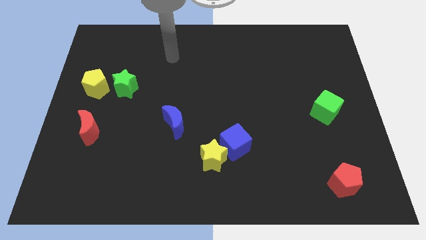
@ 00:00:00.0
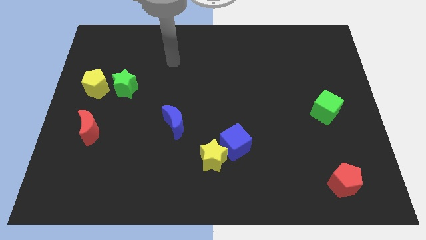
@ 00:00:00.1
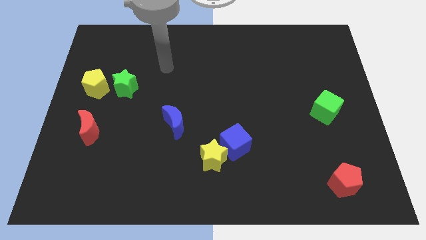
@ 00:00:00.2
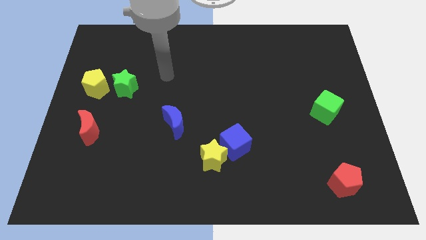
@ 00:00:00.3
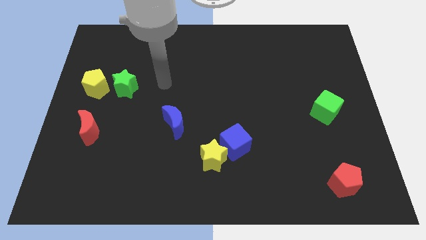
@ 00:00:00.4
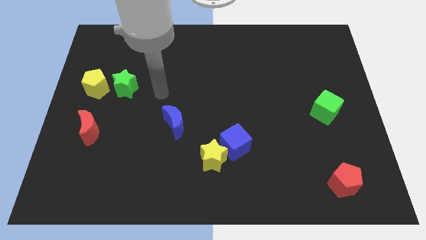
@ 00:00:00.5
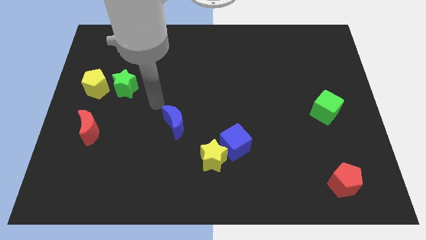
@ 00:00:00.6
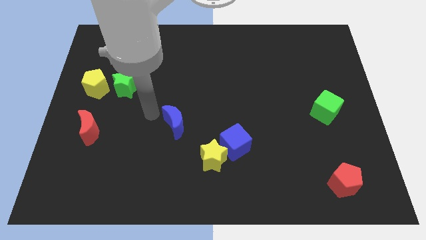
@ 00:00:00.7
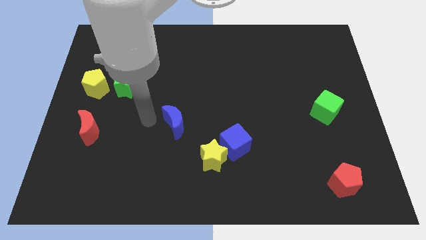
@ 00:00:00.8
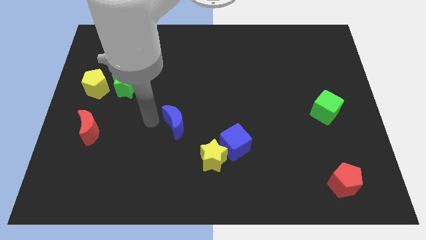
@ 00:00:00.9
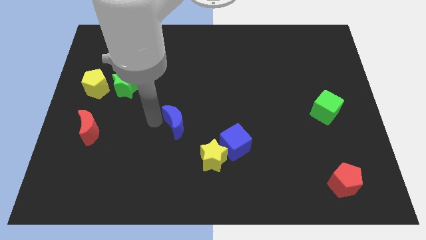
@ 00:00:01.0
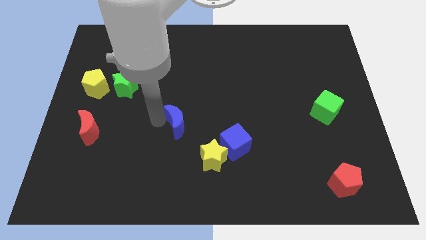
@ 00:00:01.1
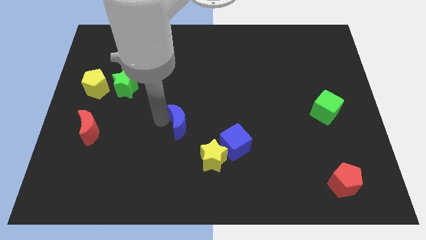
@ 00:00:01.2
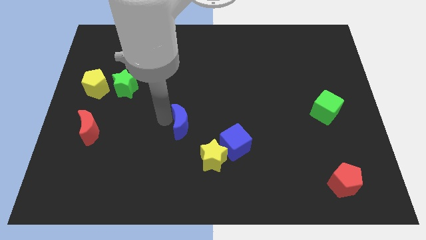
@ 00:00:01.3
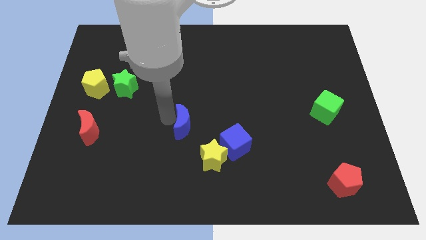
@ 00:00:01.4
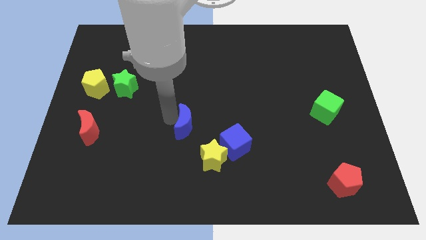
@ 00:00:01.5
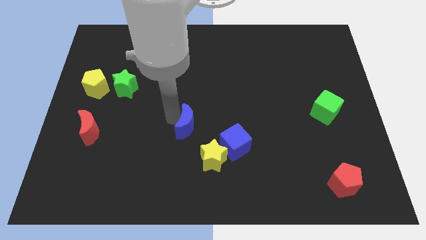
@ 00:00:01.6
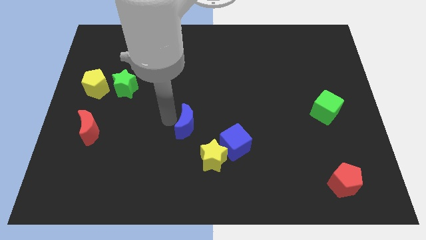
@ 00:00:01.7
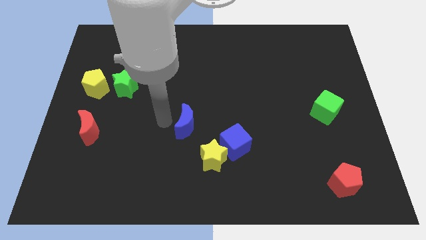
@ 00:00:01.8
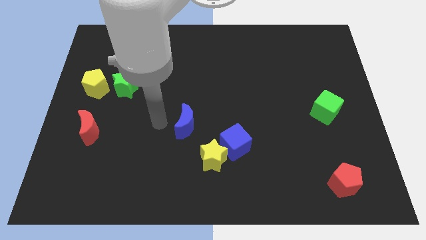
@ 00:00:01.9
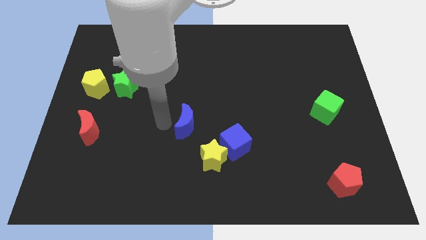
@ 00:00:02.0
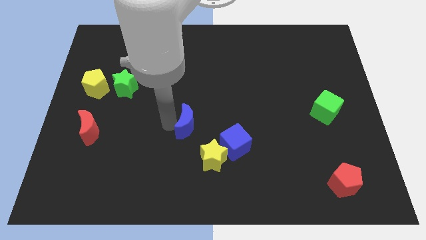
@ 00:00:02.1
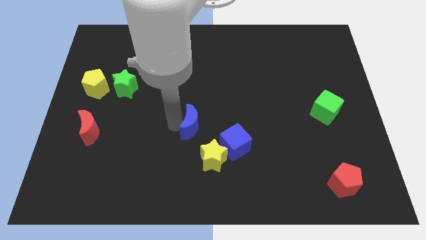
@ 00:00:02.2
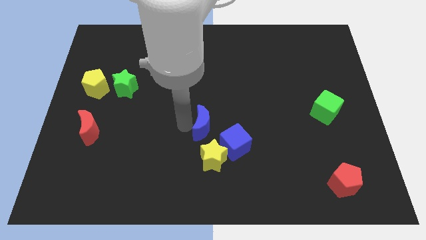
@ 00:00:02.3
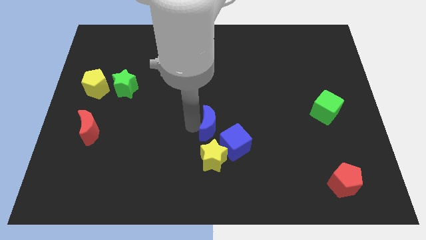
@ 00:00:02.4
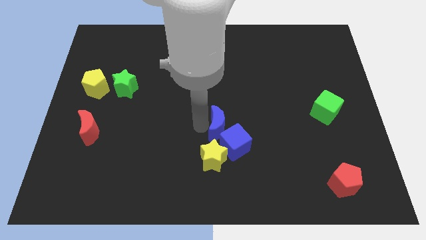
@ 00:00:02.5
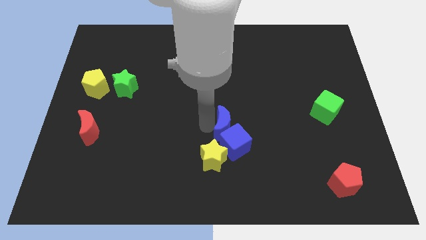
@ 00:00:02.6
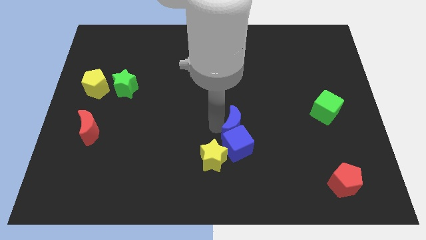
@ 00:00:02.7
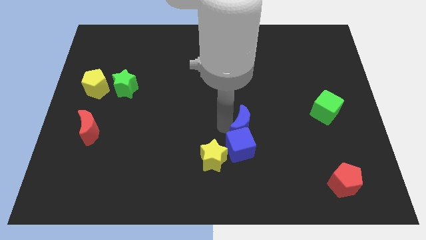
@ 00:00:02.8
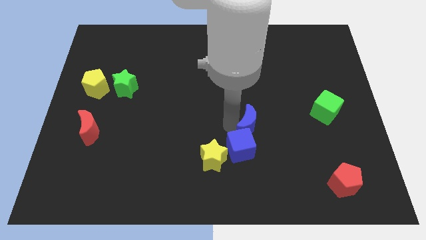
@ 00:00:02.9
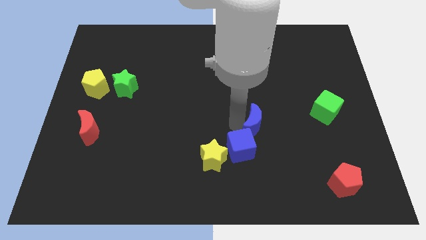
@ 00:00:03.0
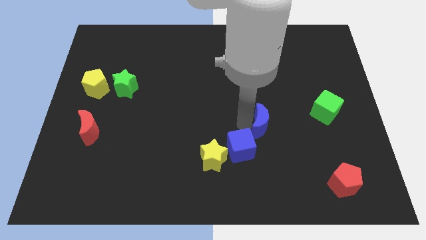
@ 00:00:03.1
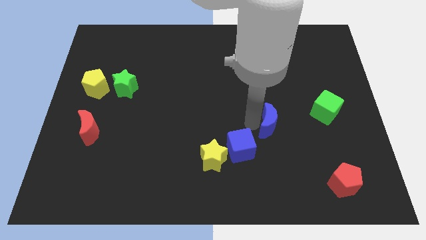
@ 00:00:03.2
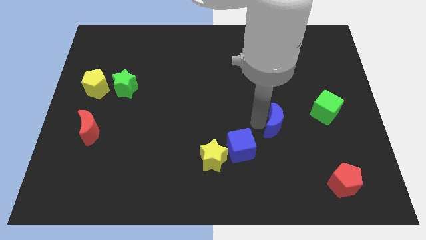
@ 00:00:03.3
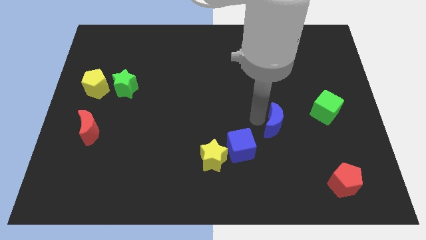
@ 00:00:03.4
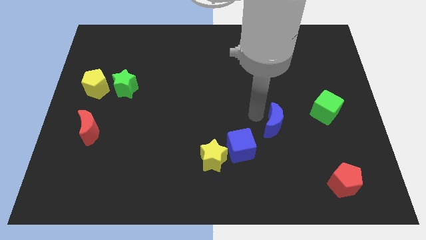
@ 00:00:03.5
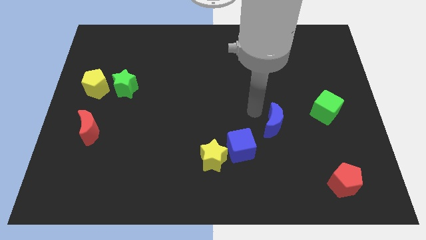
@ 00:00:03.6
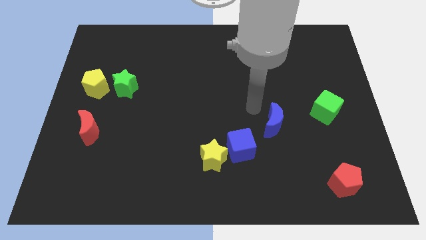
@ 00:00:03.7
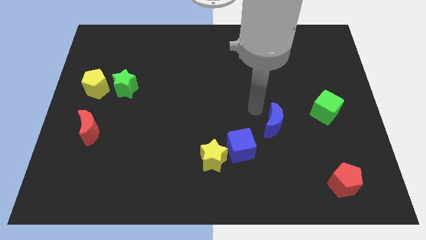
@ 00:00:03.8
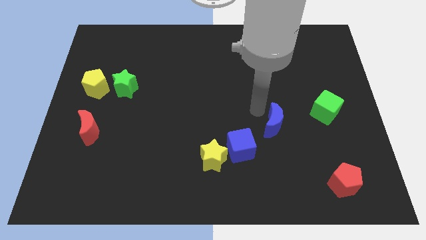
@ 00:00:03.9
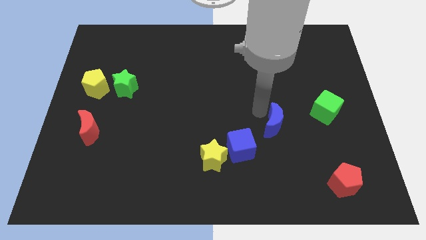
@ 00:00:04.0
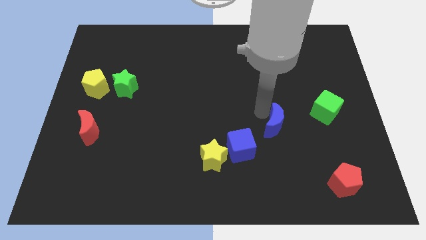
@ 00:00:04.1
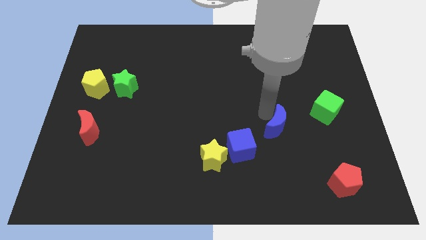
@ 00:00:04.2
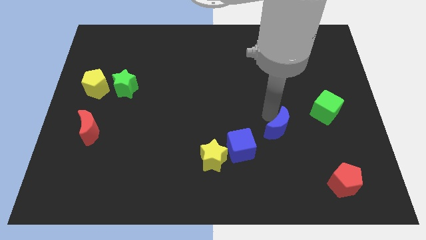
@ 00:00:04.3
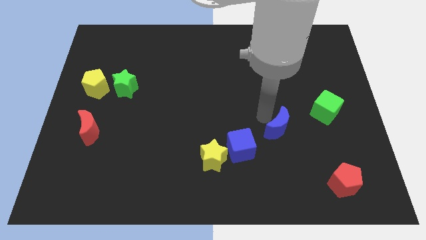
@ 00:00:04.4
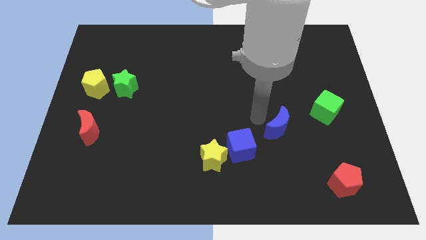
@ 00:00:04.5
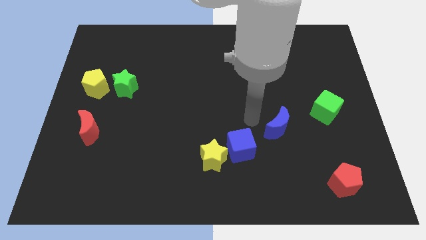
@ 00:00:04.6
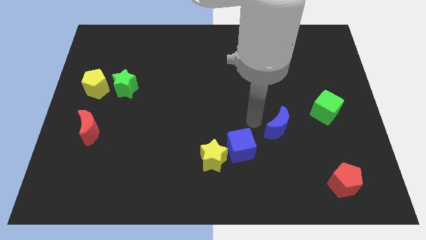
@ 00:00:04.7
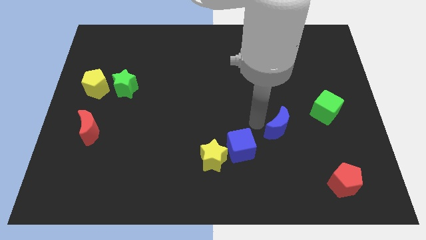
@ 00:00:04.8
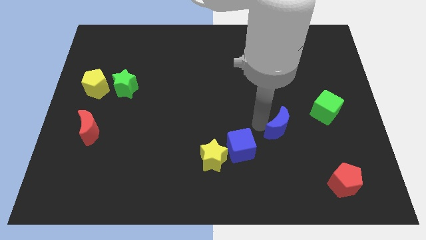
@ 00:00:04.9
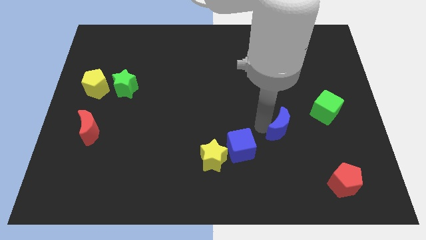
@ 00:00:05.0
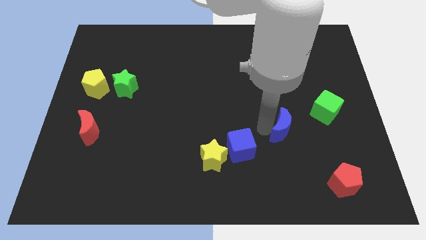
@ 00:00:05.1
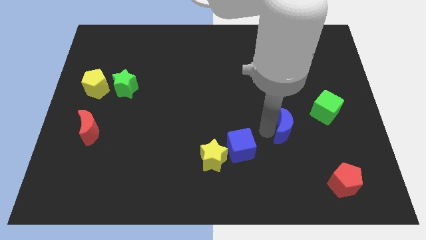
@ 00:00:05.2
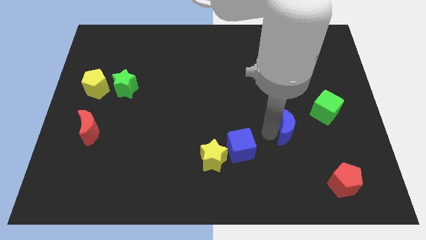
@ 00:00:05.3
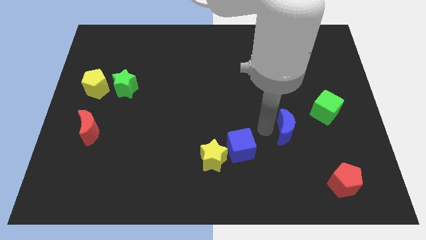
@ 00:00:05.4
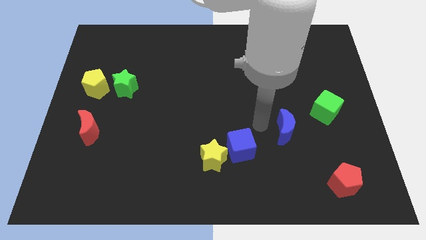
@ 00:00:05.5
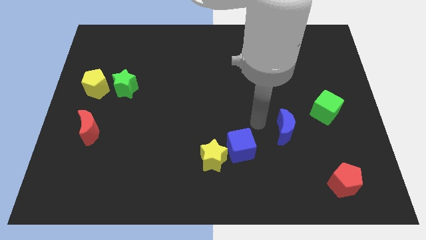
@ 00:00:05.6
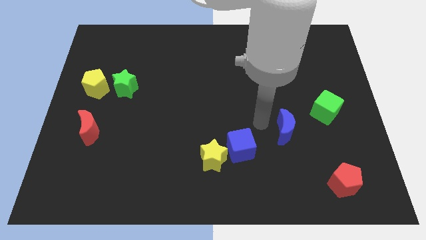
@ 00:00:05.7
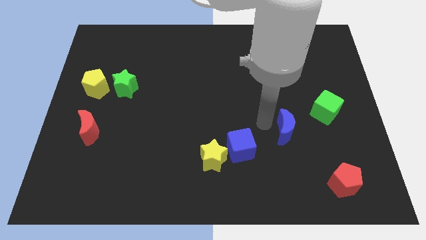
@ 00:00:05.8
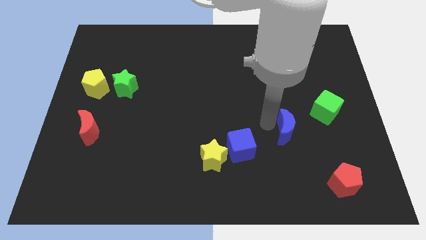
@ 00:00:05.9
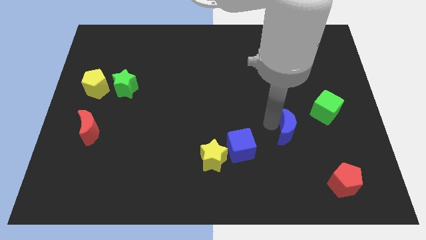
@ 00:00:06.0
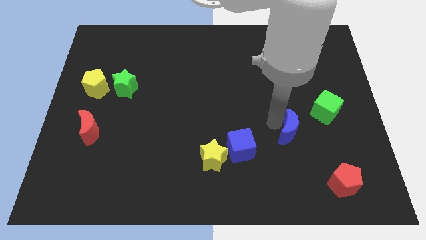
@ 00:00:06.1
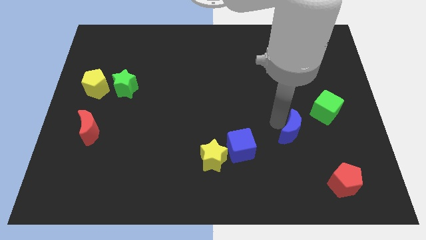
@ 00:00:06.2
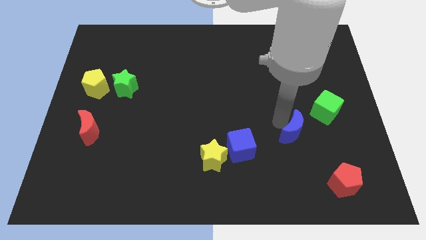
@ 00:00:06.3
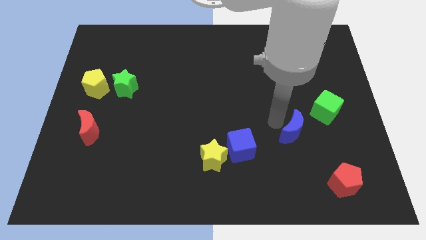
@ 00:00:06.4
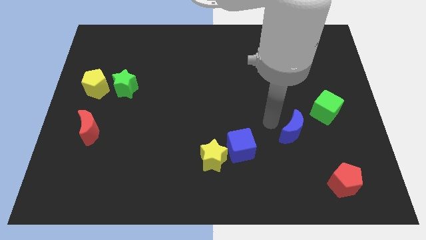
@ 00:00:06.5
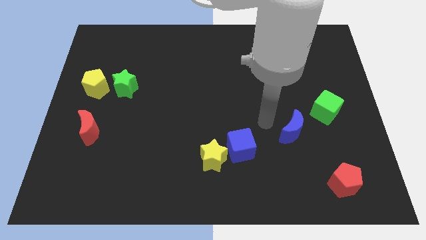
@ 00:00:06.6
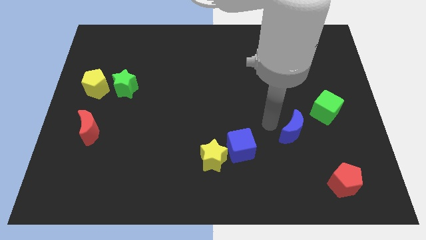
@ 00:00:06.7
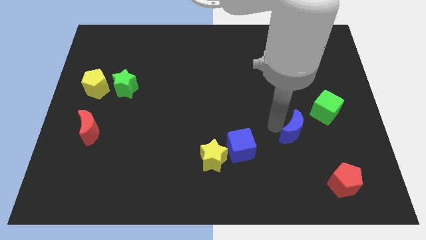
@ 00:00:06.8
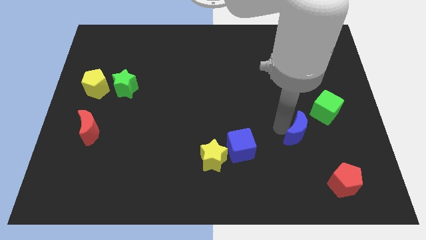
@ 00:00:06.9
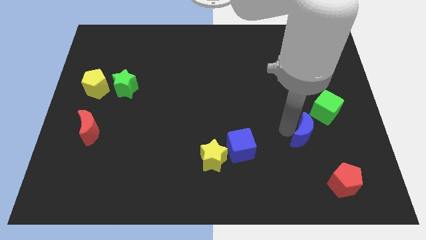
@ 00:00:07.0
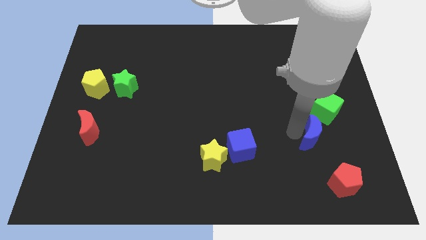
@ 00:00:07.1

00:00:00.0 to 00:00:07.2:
put the blue moon above the red pentagon
